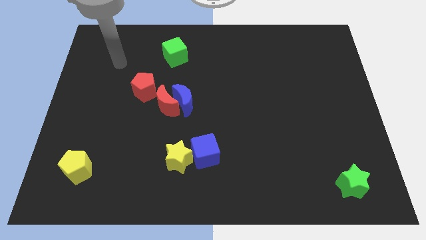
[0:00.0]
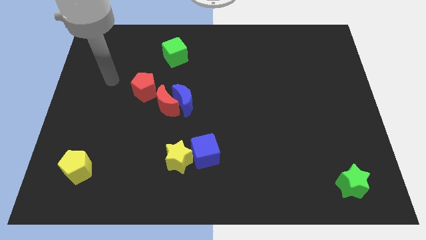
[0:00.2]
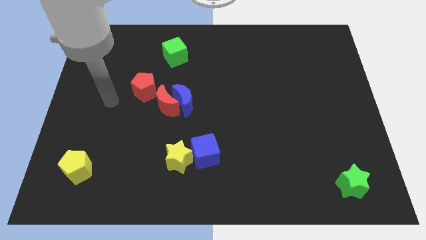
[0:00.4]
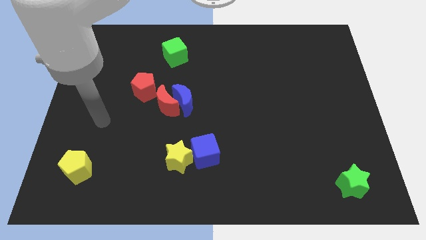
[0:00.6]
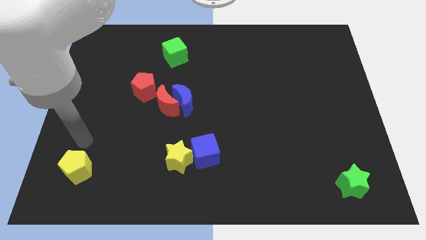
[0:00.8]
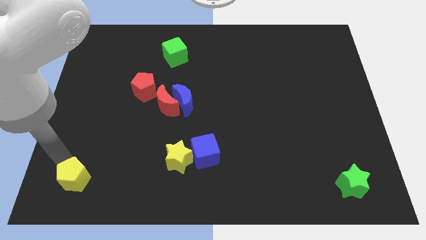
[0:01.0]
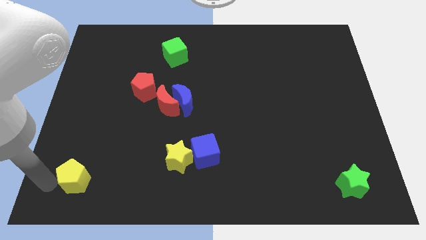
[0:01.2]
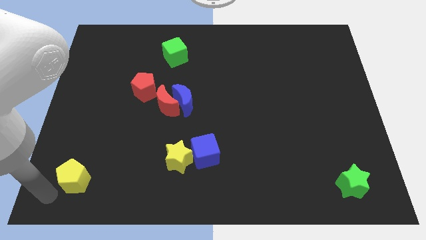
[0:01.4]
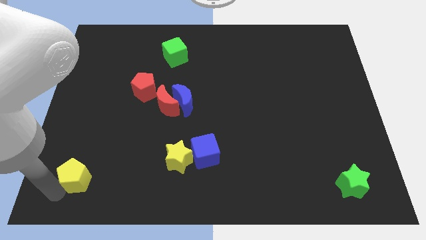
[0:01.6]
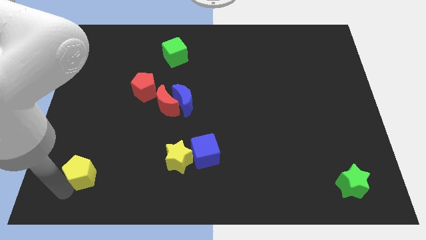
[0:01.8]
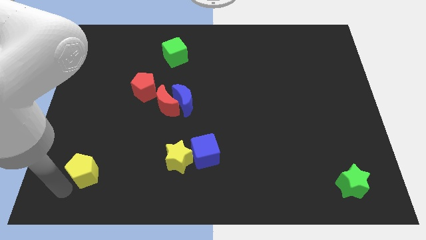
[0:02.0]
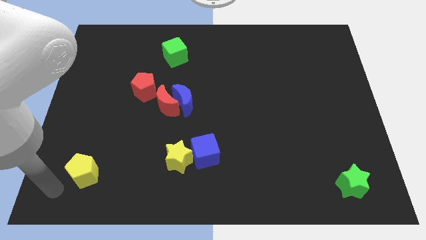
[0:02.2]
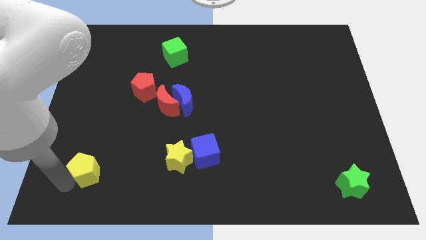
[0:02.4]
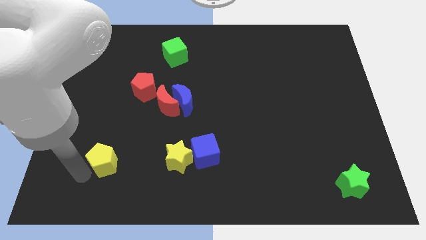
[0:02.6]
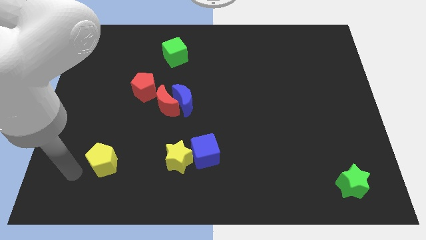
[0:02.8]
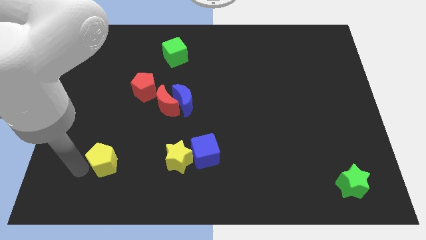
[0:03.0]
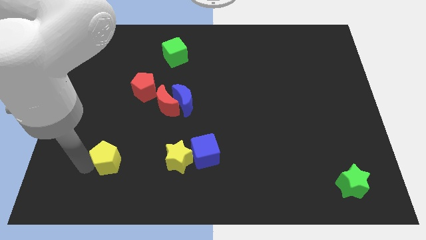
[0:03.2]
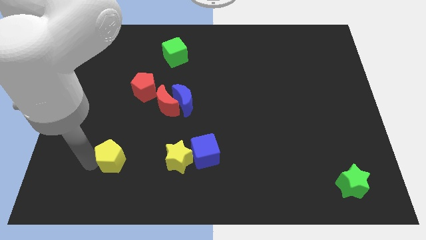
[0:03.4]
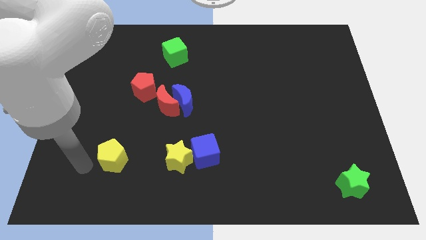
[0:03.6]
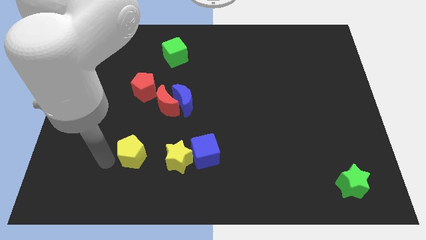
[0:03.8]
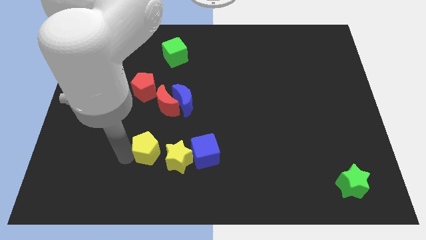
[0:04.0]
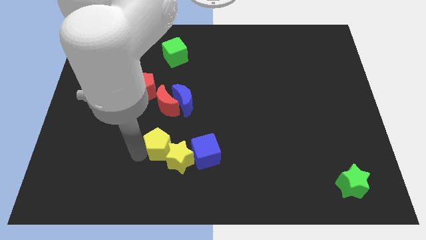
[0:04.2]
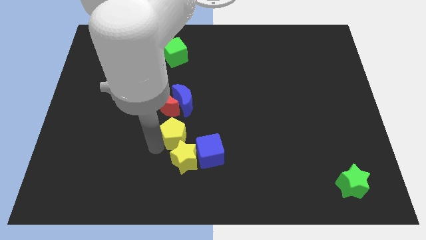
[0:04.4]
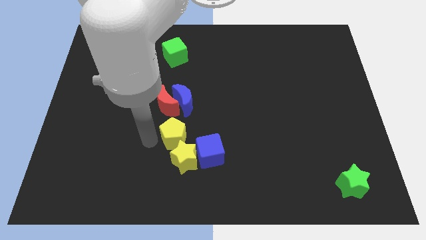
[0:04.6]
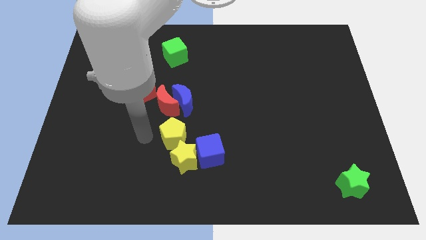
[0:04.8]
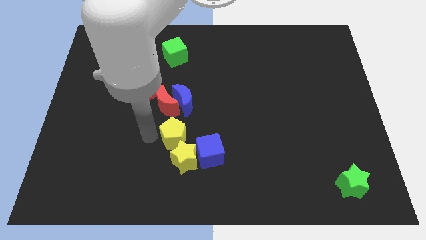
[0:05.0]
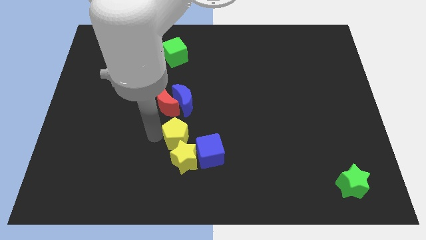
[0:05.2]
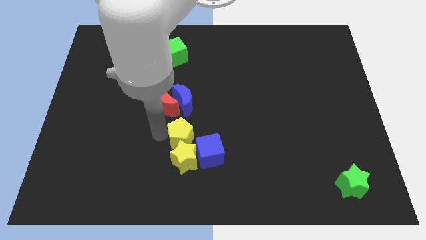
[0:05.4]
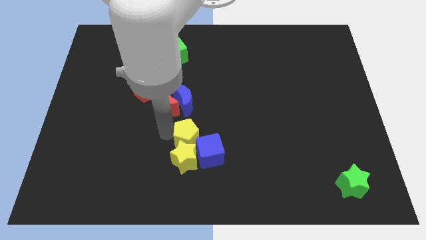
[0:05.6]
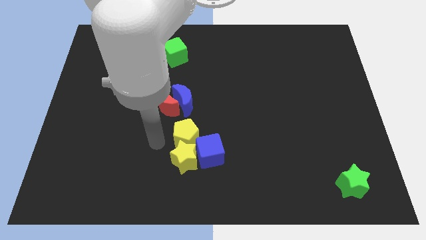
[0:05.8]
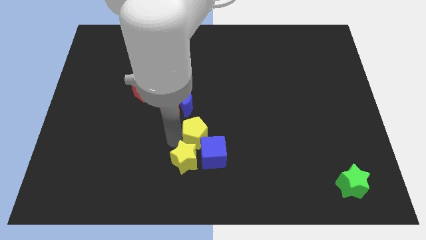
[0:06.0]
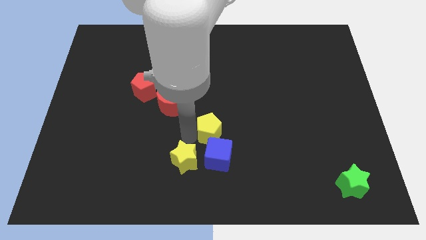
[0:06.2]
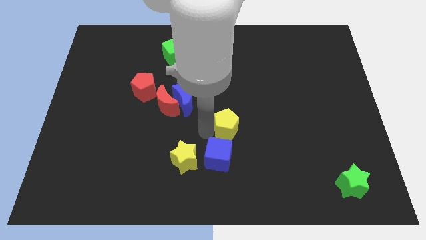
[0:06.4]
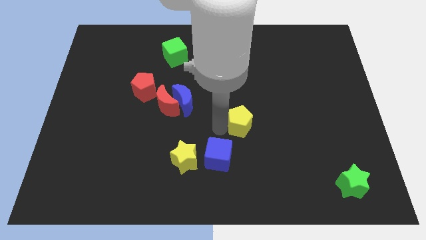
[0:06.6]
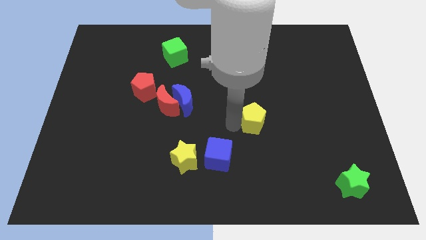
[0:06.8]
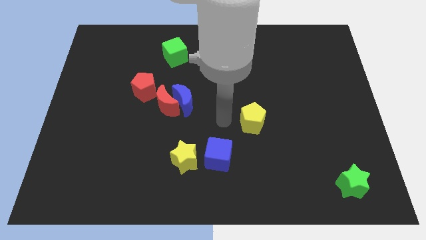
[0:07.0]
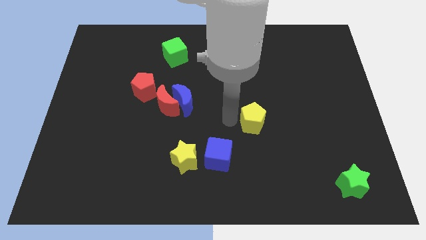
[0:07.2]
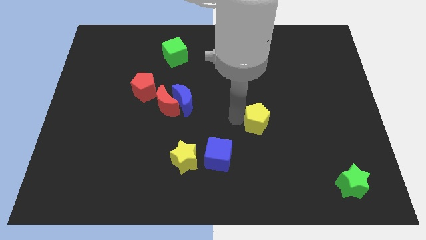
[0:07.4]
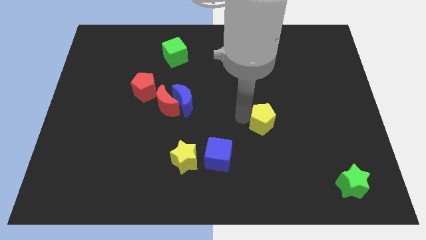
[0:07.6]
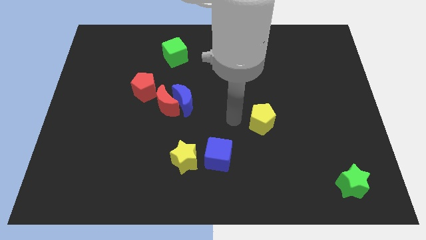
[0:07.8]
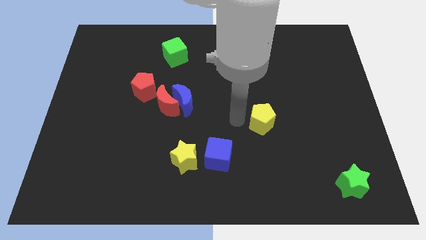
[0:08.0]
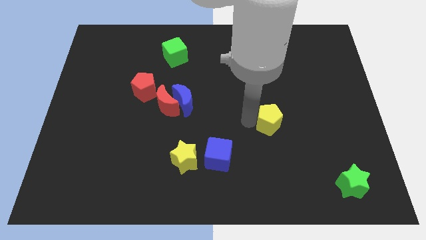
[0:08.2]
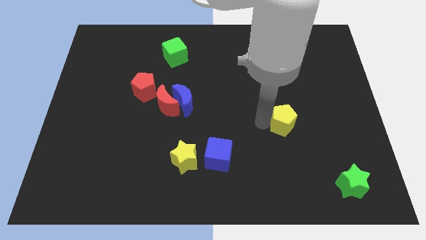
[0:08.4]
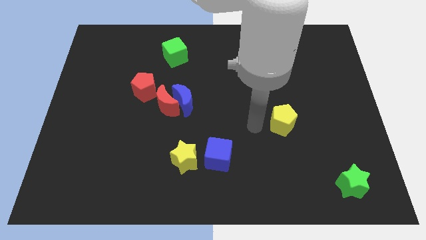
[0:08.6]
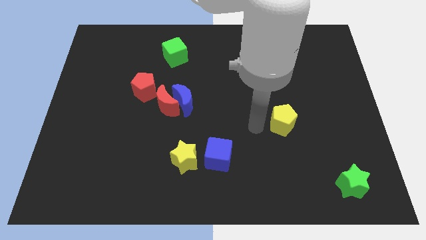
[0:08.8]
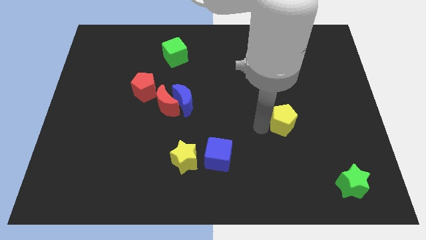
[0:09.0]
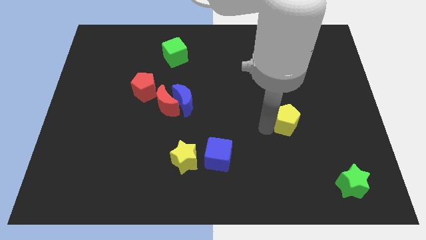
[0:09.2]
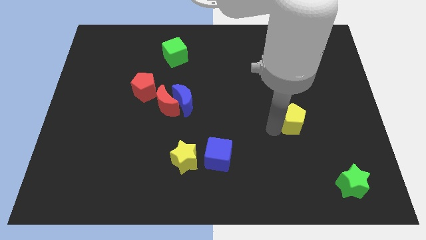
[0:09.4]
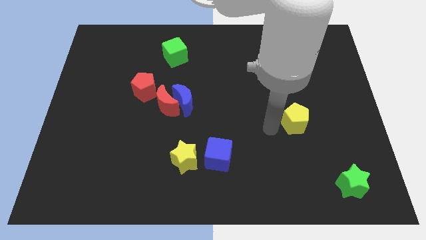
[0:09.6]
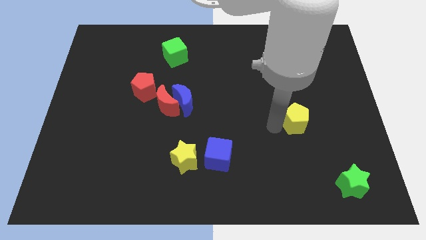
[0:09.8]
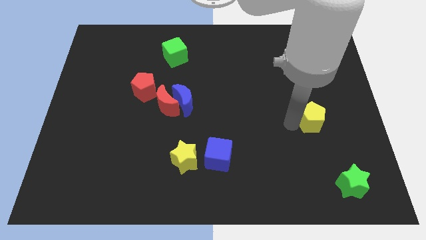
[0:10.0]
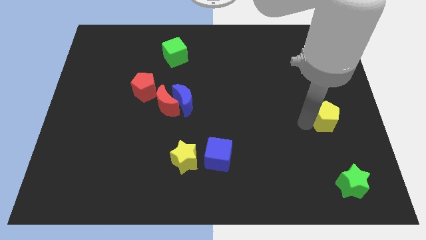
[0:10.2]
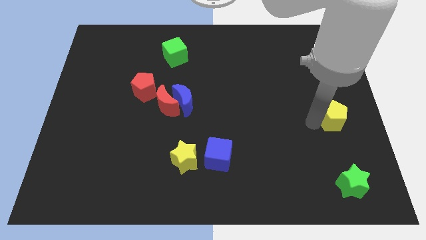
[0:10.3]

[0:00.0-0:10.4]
slide the yellow pentagon to the right side

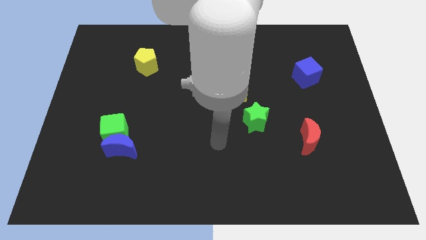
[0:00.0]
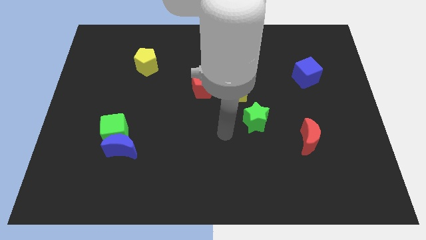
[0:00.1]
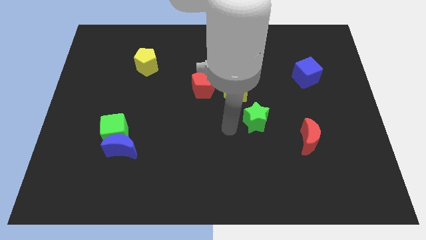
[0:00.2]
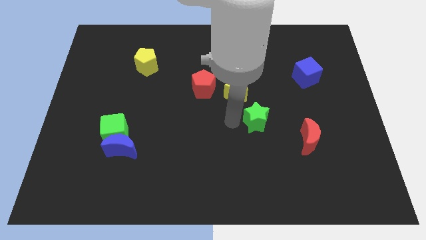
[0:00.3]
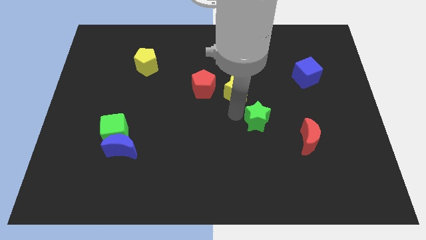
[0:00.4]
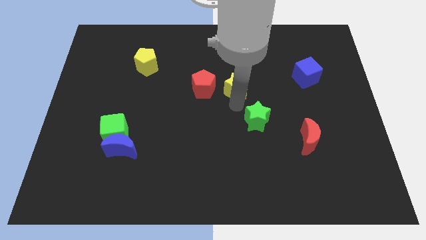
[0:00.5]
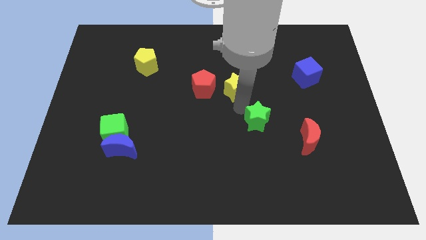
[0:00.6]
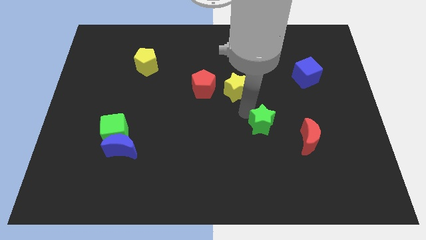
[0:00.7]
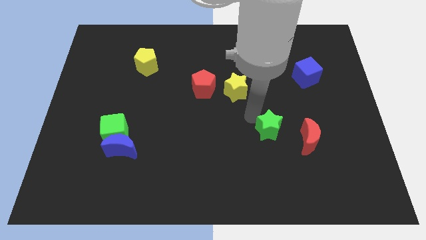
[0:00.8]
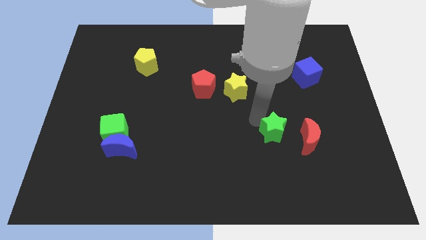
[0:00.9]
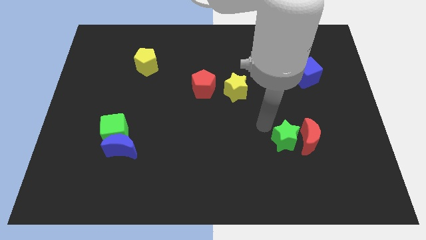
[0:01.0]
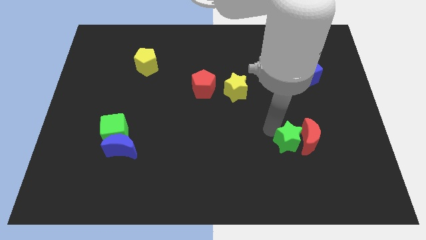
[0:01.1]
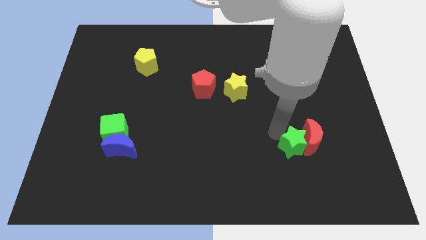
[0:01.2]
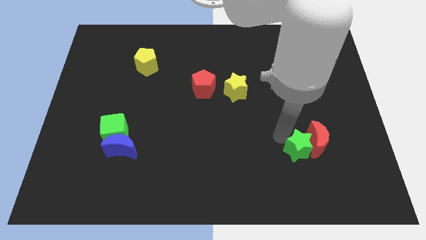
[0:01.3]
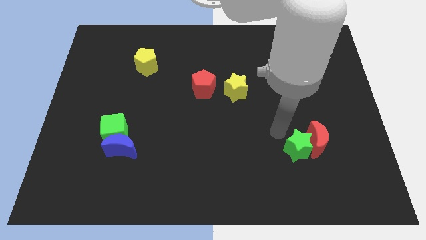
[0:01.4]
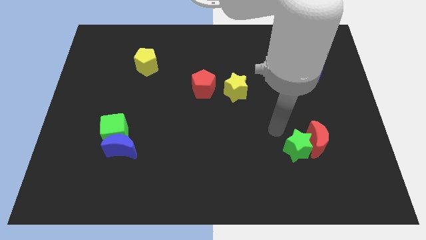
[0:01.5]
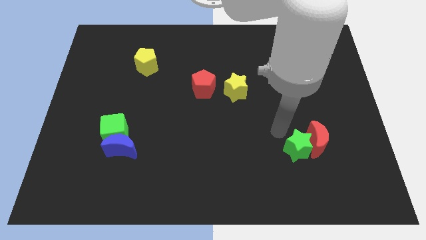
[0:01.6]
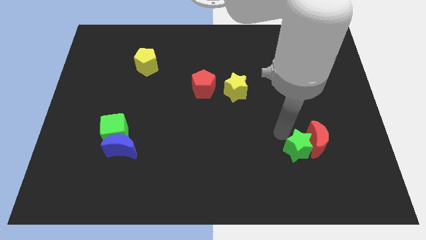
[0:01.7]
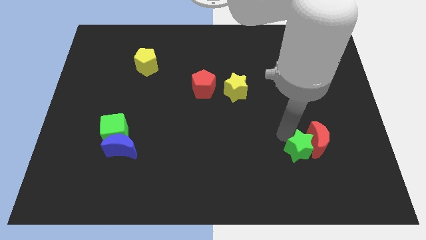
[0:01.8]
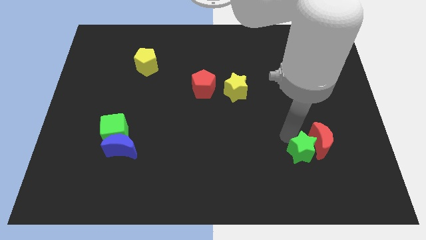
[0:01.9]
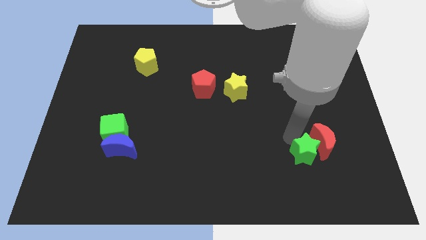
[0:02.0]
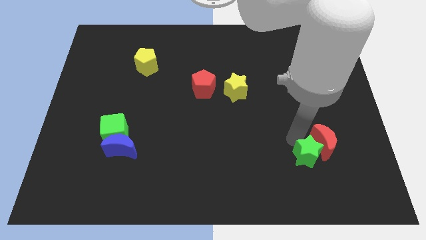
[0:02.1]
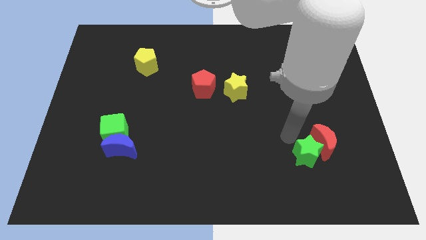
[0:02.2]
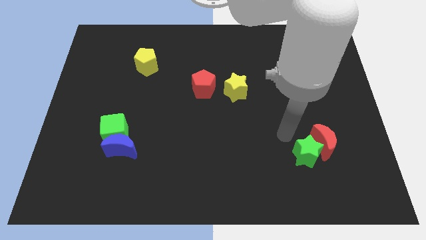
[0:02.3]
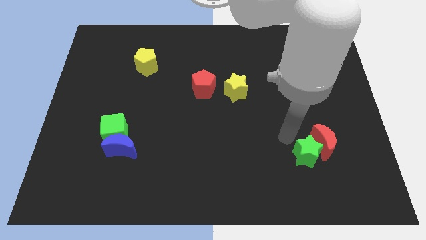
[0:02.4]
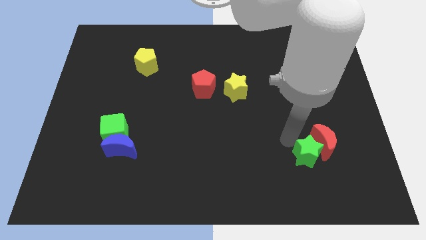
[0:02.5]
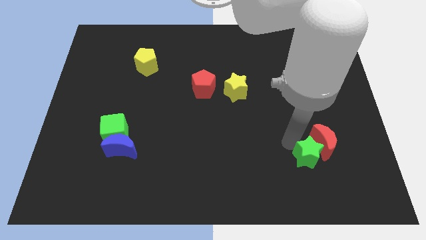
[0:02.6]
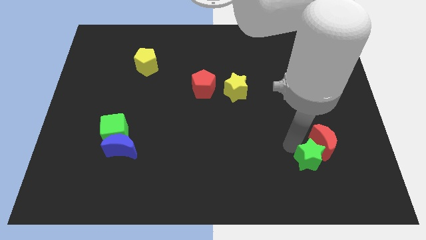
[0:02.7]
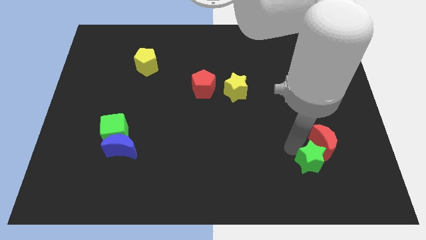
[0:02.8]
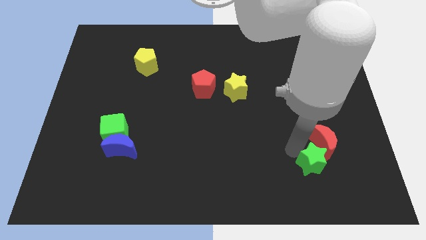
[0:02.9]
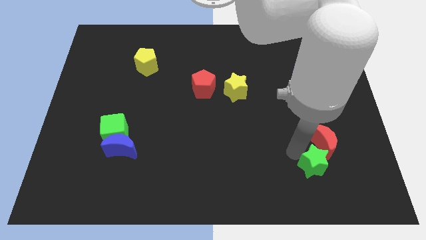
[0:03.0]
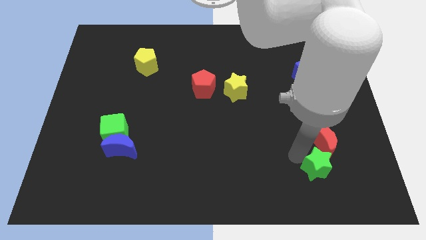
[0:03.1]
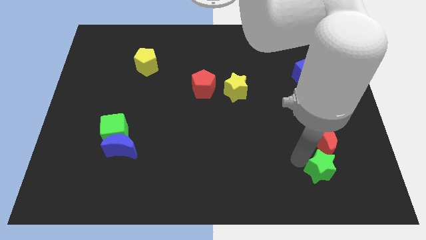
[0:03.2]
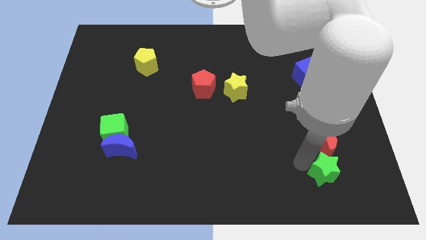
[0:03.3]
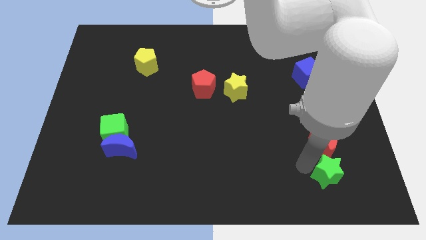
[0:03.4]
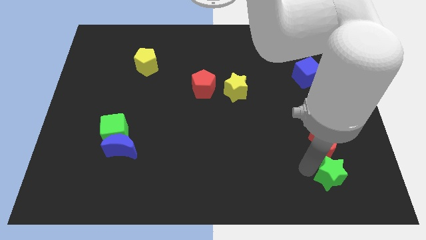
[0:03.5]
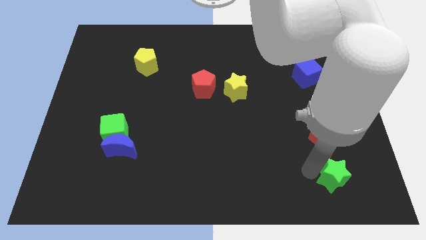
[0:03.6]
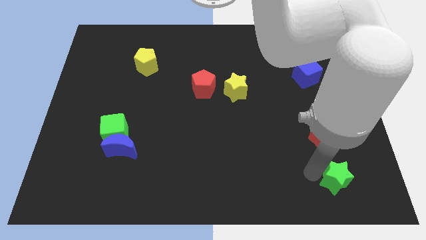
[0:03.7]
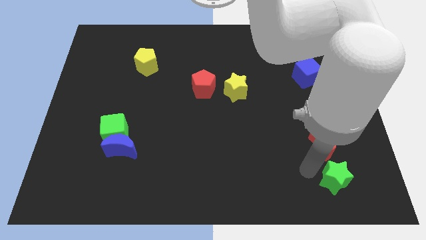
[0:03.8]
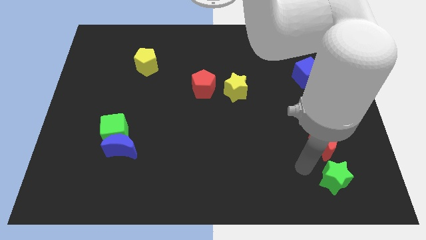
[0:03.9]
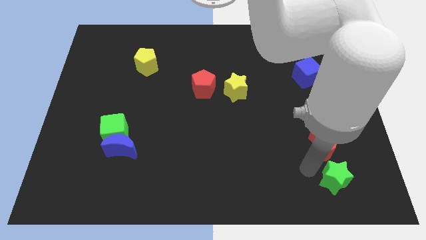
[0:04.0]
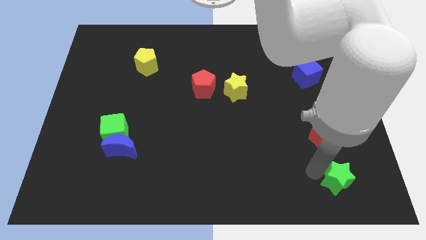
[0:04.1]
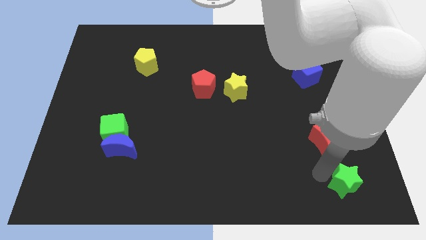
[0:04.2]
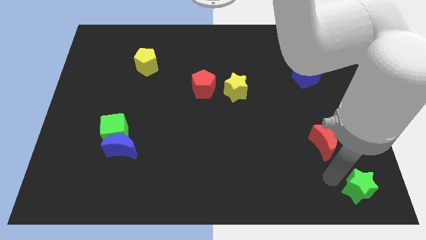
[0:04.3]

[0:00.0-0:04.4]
push the green star to the bottom right
